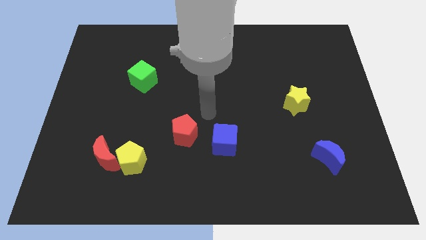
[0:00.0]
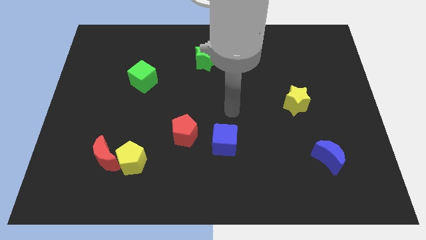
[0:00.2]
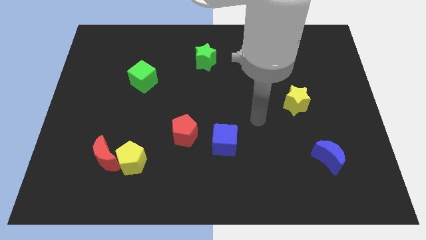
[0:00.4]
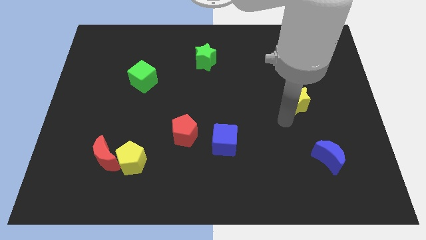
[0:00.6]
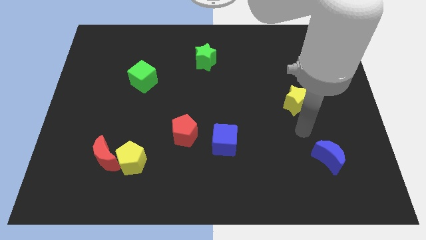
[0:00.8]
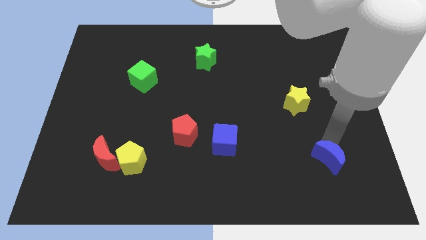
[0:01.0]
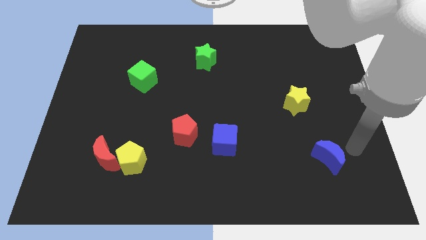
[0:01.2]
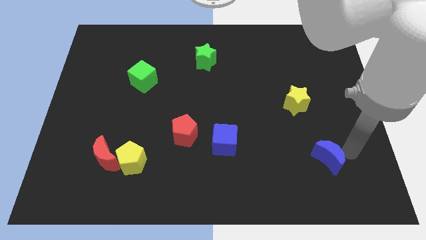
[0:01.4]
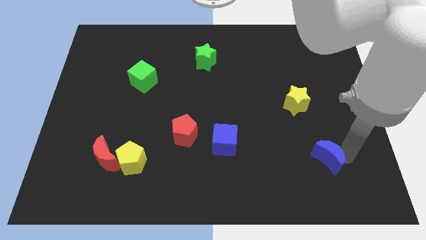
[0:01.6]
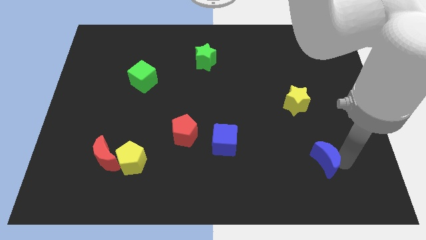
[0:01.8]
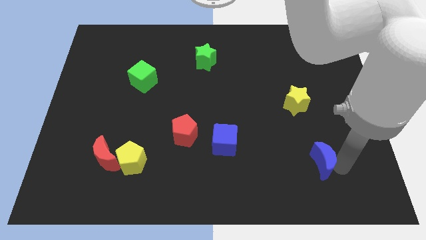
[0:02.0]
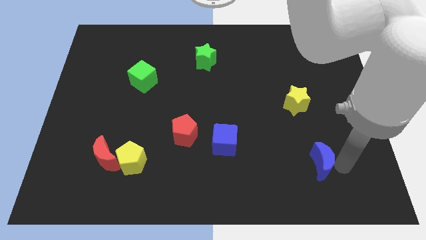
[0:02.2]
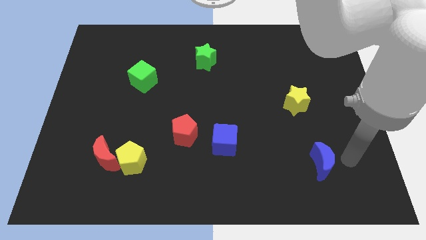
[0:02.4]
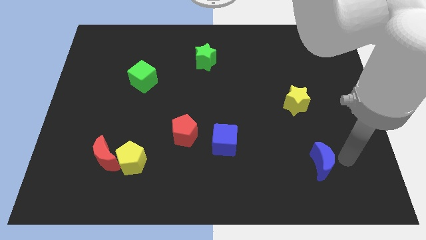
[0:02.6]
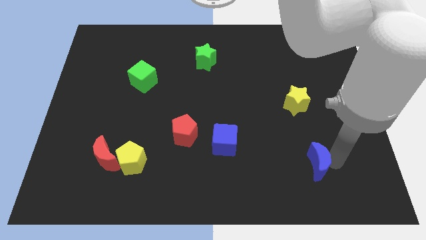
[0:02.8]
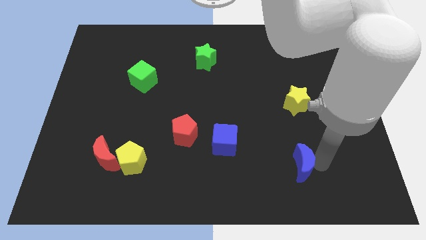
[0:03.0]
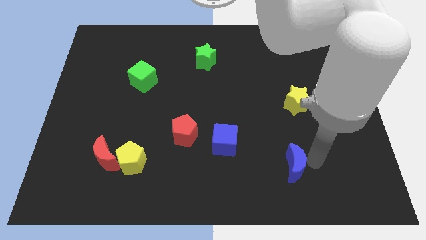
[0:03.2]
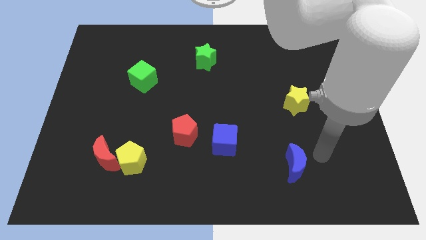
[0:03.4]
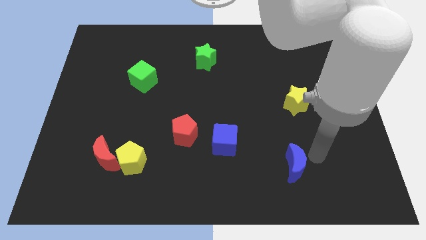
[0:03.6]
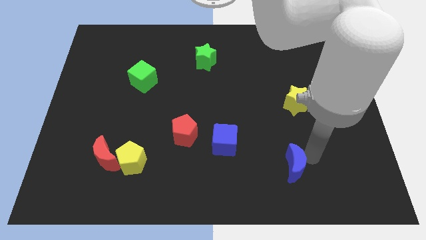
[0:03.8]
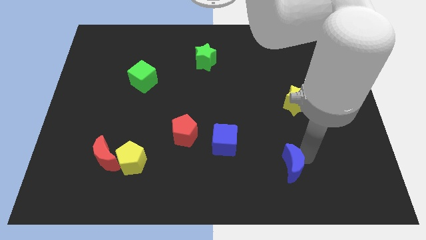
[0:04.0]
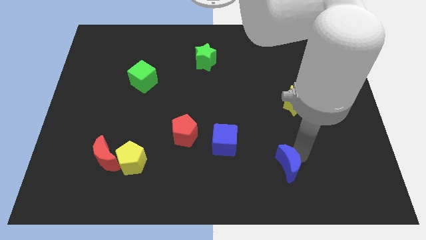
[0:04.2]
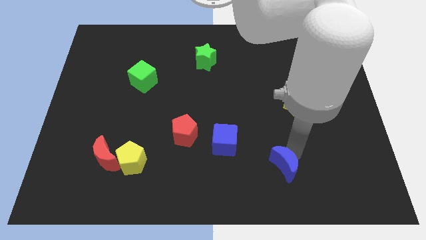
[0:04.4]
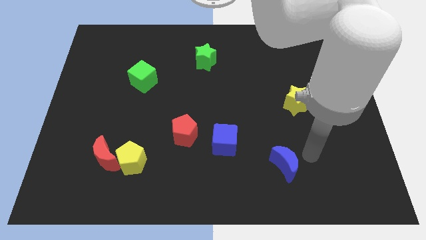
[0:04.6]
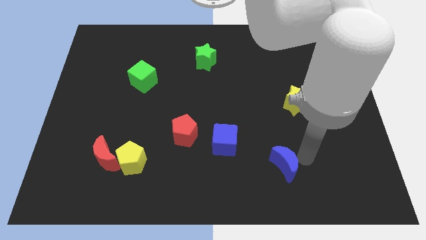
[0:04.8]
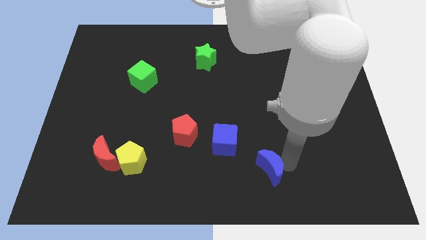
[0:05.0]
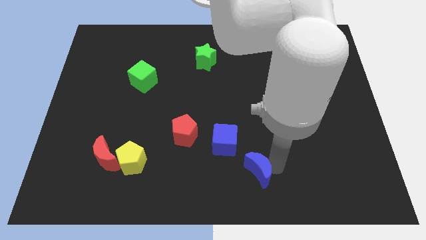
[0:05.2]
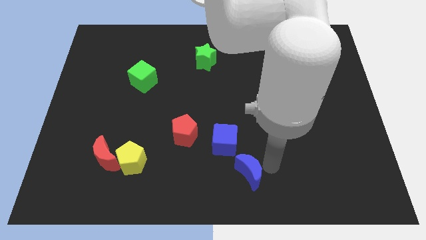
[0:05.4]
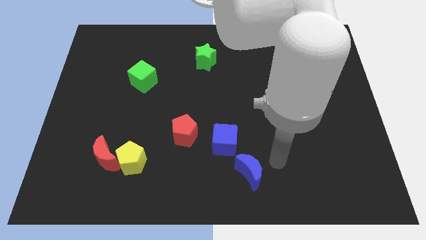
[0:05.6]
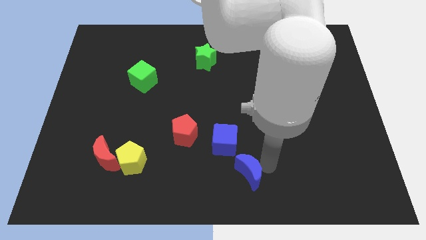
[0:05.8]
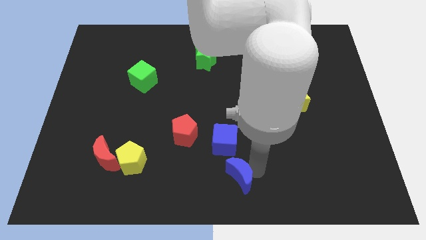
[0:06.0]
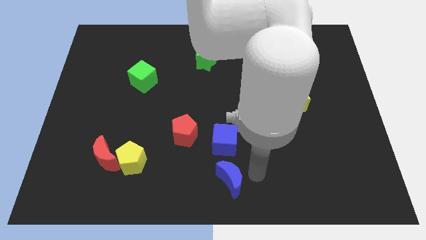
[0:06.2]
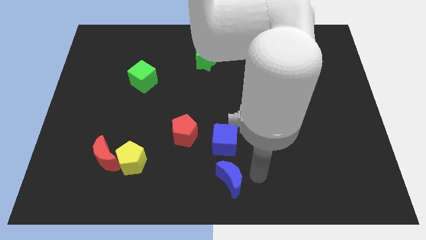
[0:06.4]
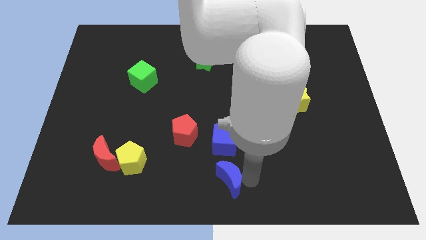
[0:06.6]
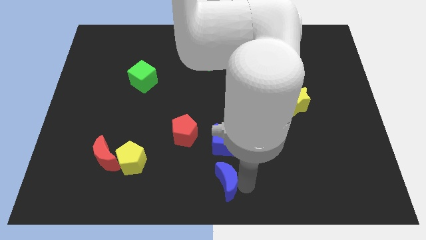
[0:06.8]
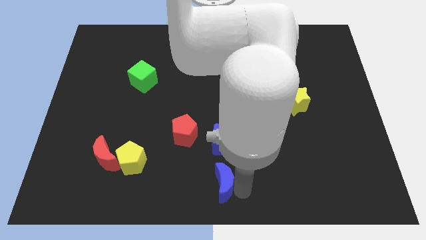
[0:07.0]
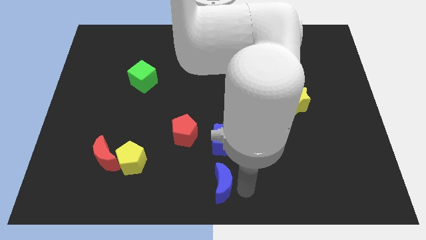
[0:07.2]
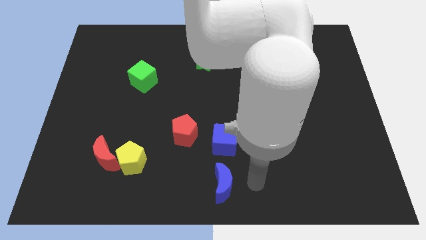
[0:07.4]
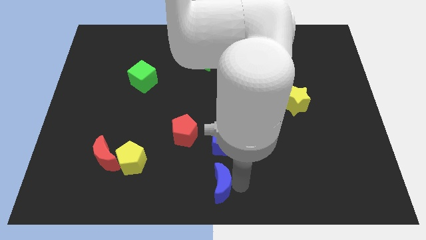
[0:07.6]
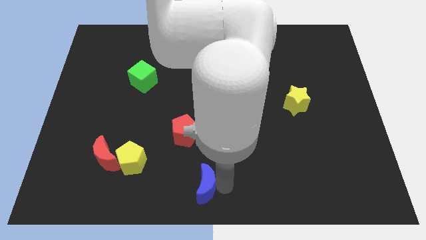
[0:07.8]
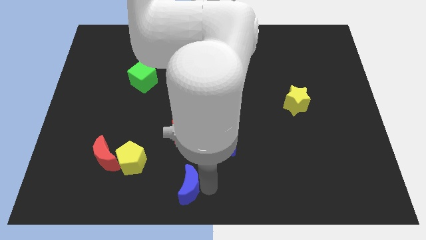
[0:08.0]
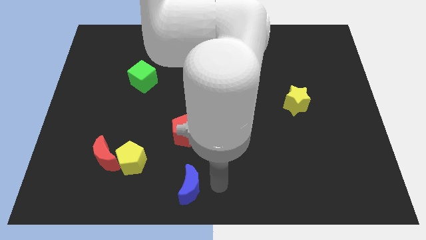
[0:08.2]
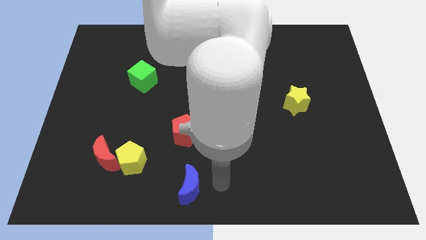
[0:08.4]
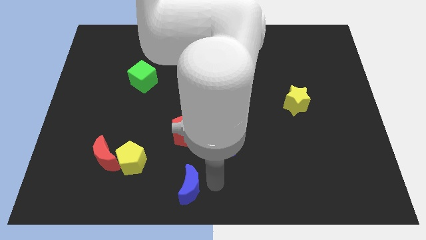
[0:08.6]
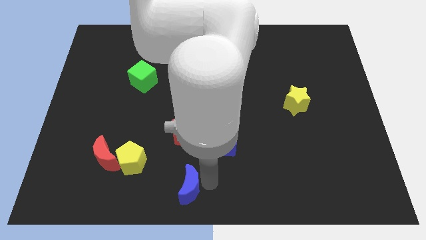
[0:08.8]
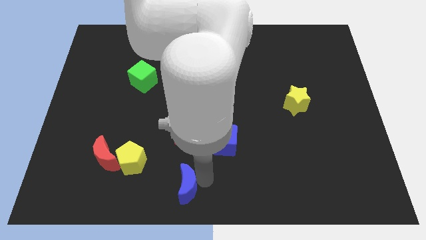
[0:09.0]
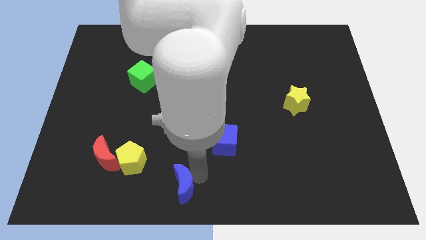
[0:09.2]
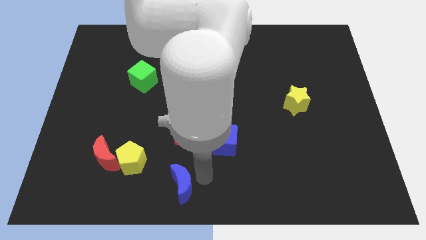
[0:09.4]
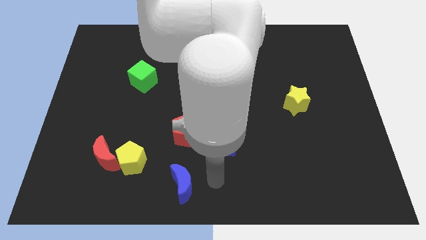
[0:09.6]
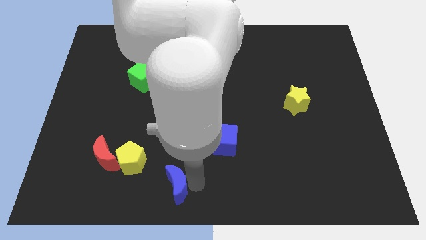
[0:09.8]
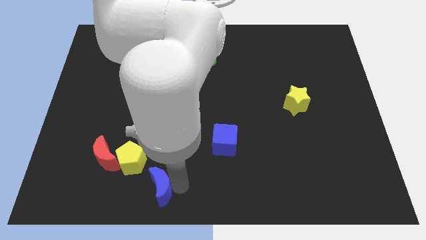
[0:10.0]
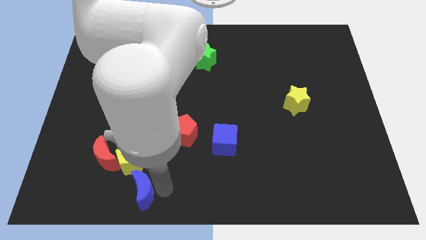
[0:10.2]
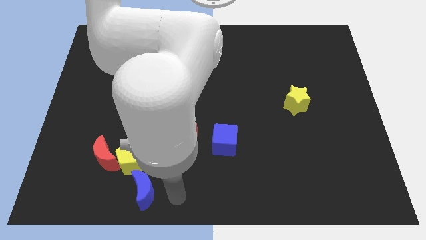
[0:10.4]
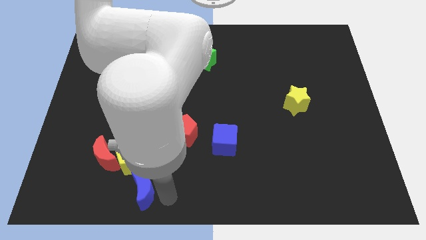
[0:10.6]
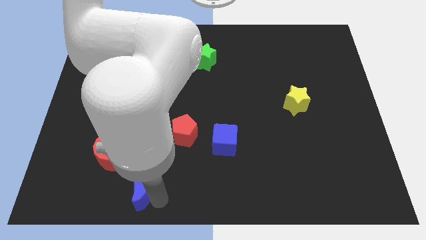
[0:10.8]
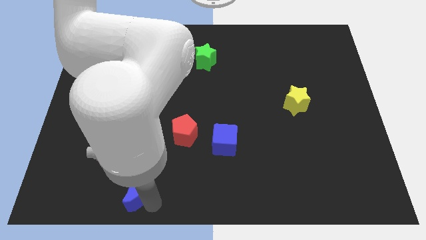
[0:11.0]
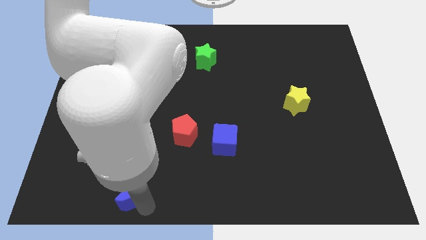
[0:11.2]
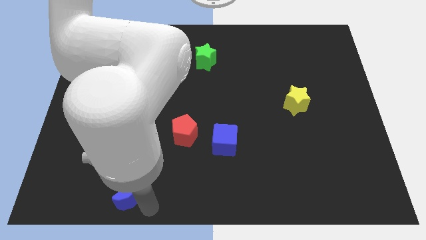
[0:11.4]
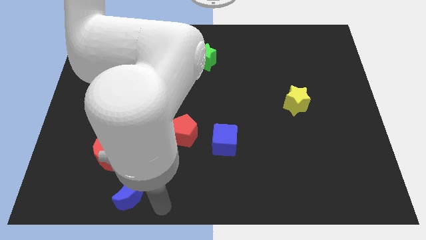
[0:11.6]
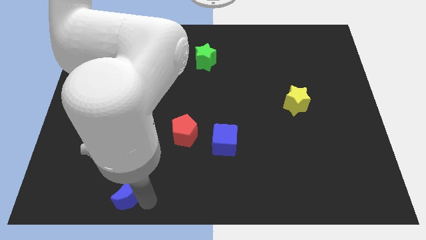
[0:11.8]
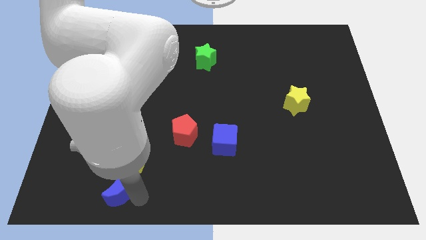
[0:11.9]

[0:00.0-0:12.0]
move the blue moon to the bottom left of the yellow pentagon

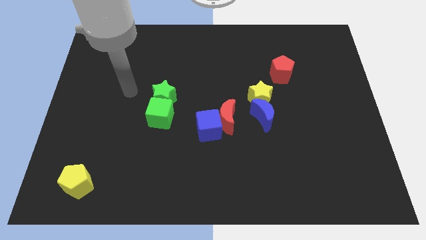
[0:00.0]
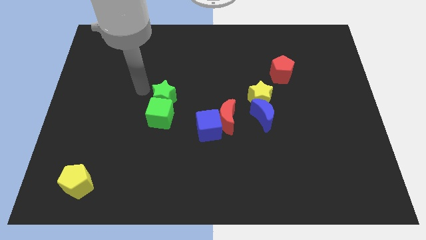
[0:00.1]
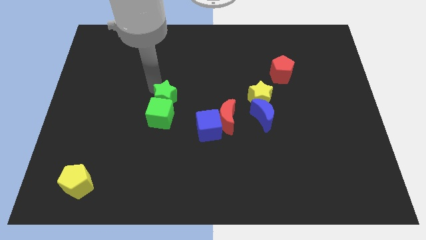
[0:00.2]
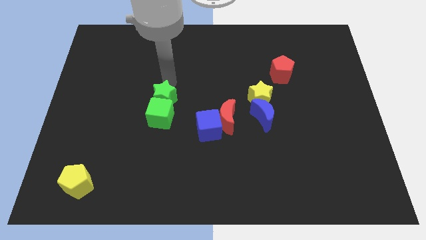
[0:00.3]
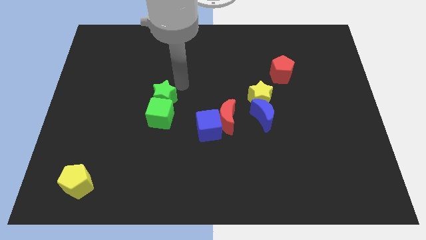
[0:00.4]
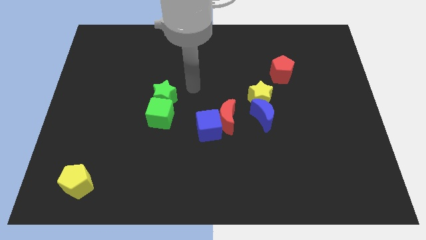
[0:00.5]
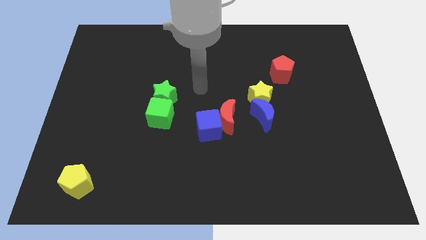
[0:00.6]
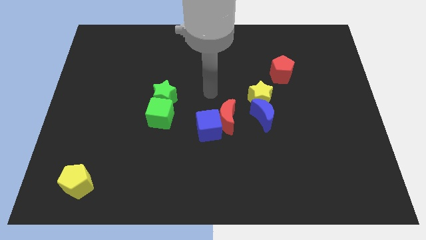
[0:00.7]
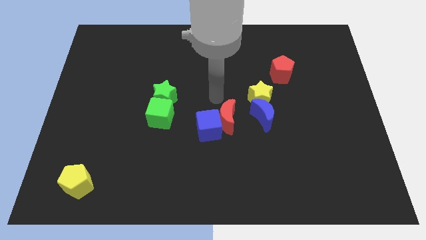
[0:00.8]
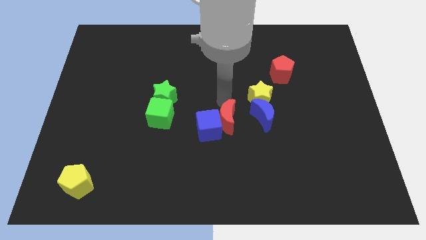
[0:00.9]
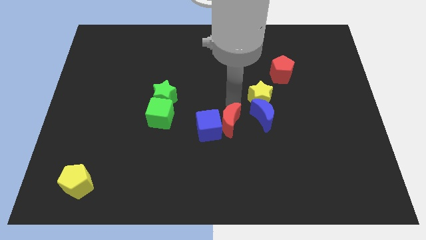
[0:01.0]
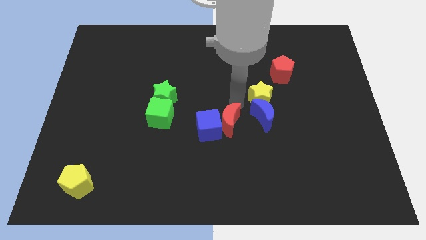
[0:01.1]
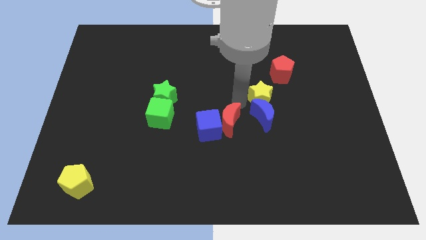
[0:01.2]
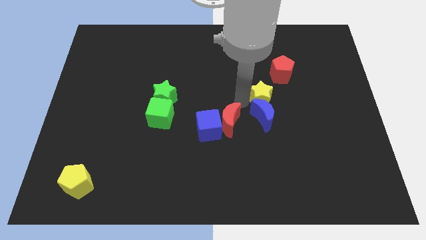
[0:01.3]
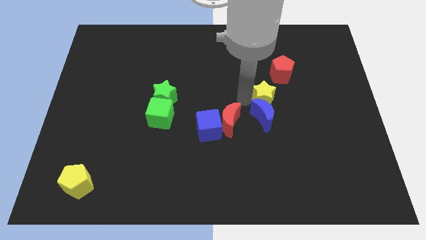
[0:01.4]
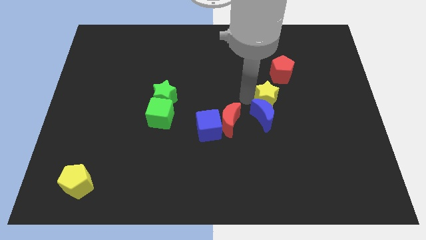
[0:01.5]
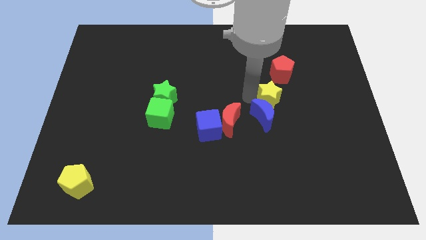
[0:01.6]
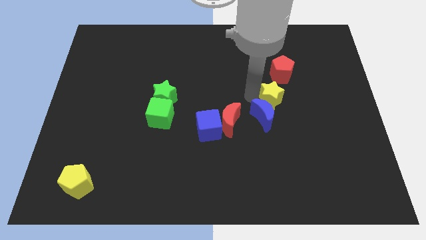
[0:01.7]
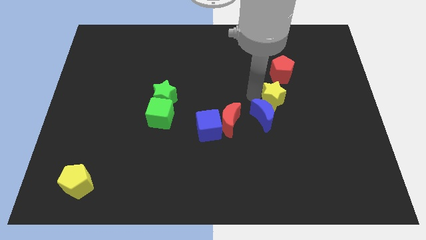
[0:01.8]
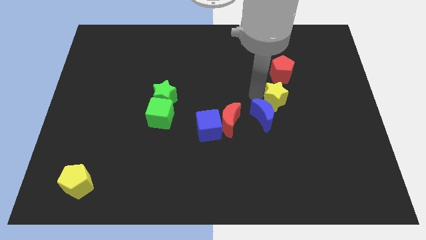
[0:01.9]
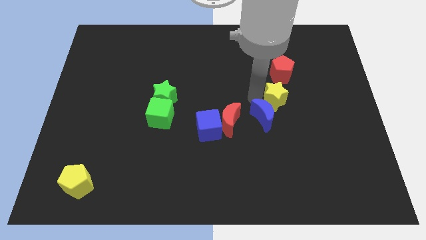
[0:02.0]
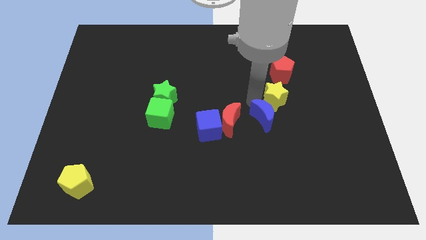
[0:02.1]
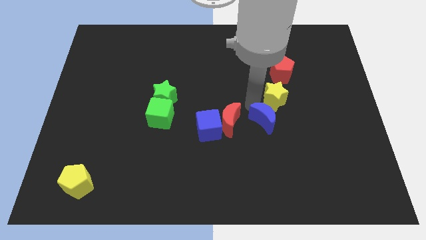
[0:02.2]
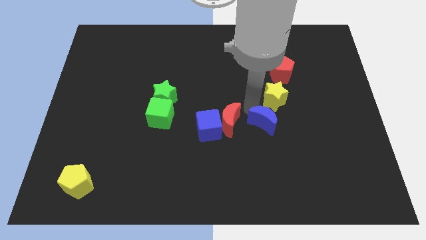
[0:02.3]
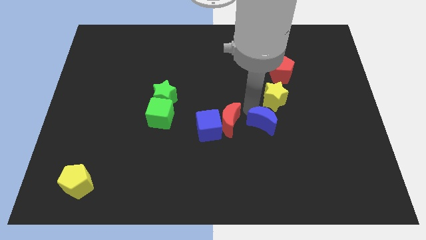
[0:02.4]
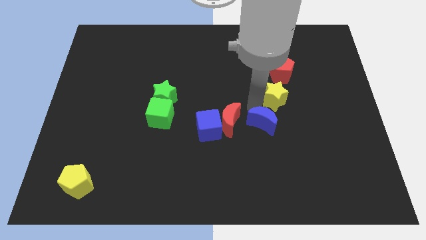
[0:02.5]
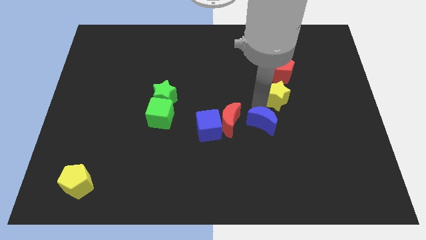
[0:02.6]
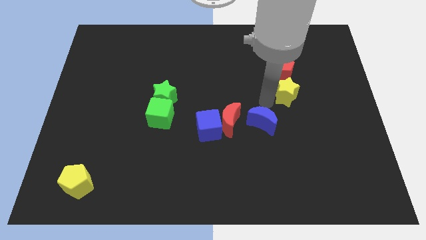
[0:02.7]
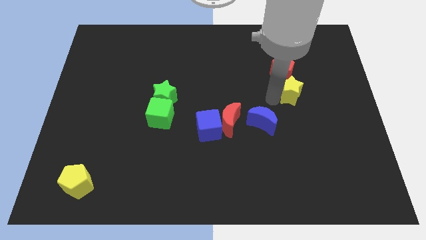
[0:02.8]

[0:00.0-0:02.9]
slide the yellow star diagonally down and to the right of the red pentagon
